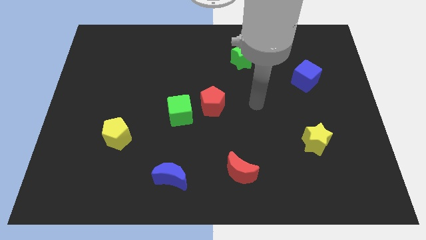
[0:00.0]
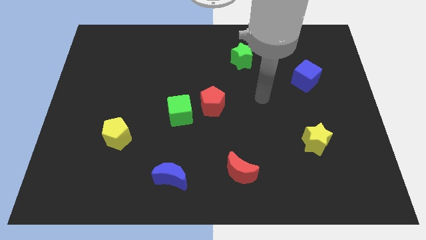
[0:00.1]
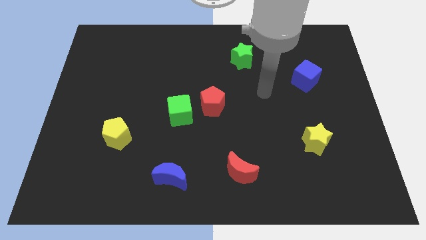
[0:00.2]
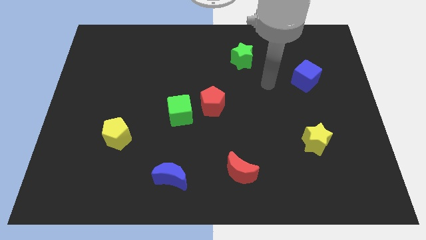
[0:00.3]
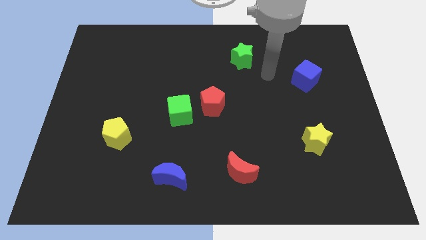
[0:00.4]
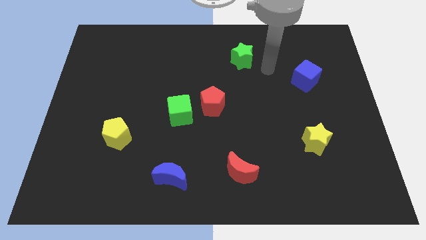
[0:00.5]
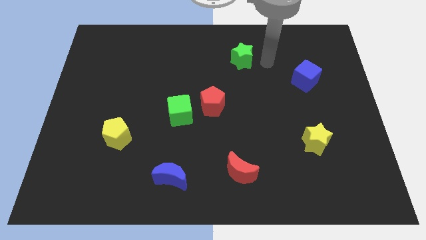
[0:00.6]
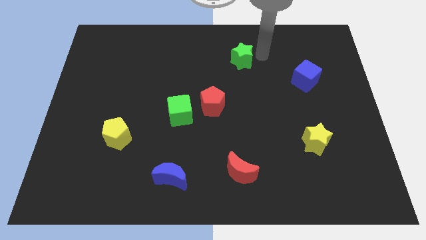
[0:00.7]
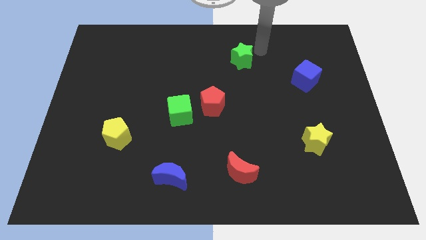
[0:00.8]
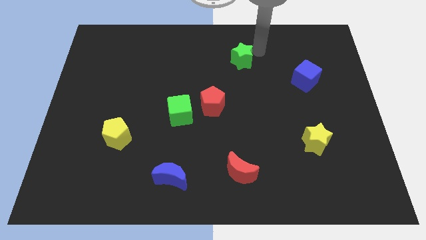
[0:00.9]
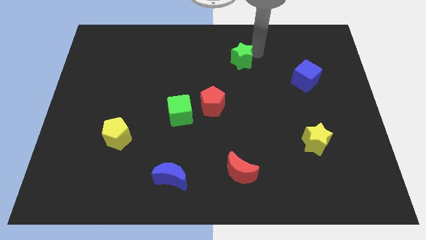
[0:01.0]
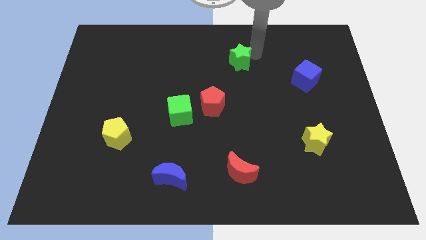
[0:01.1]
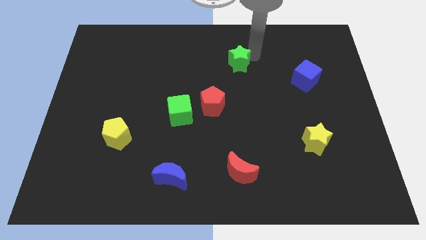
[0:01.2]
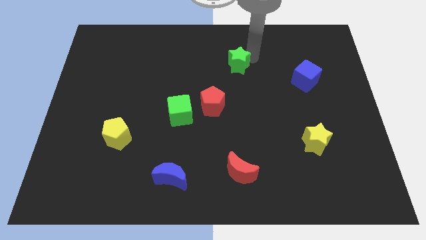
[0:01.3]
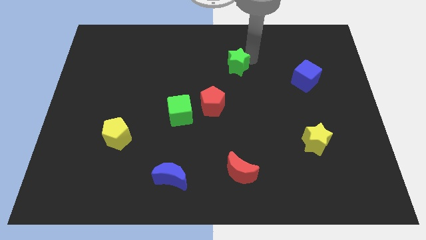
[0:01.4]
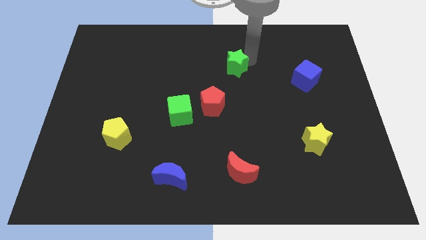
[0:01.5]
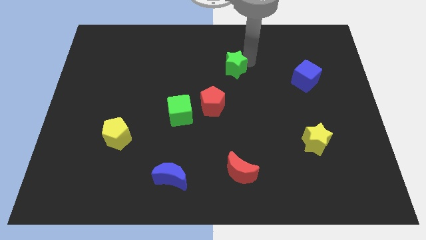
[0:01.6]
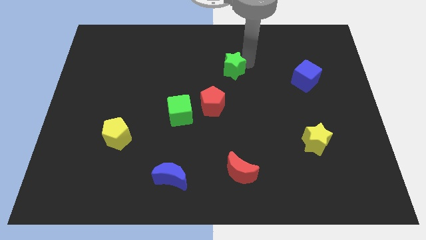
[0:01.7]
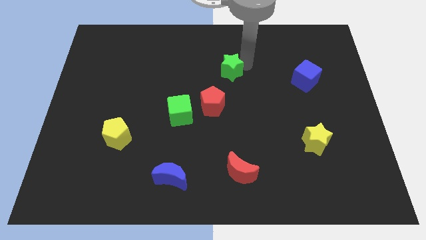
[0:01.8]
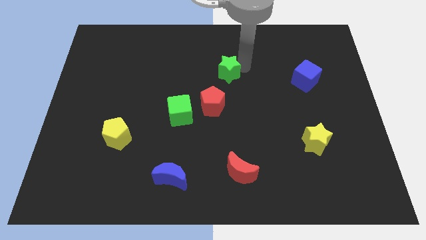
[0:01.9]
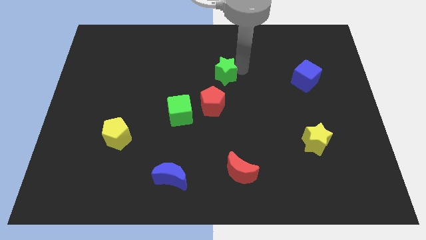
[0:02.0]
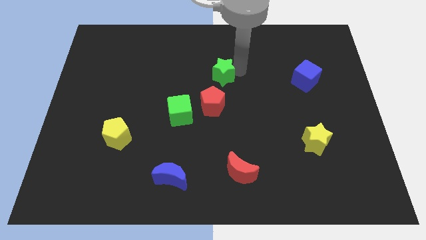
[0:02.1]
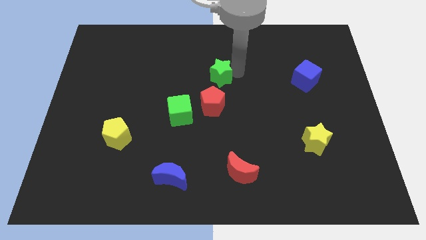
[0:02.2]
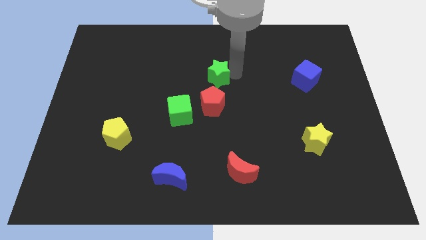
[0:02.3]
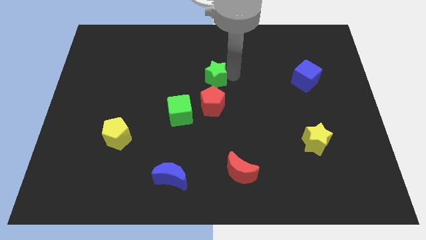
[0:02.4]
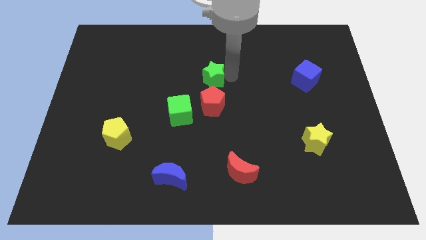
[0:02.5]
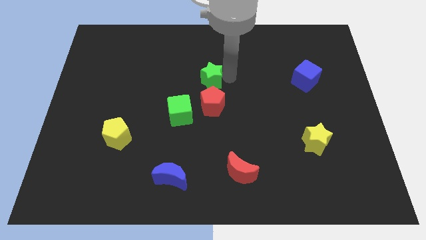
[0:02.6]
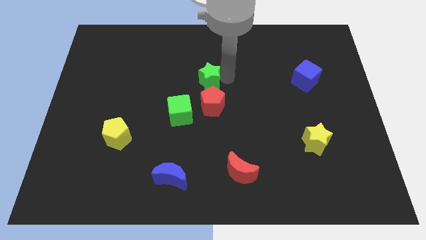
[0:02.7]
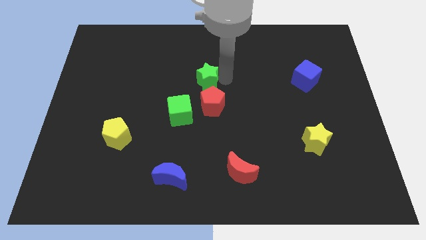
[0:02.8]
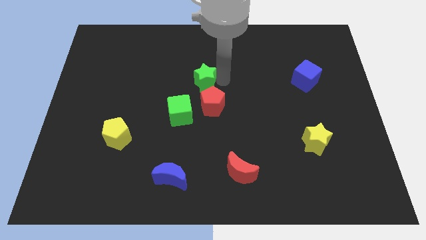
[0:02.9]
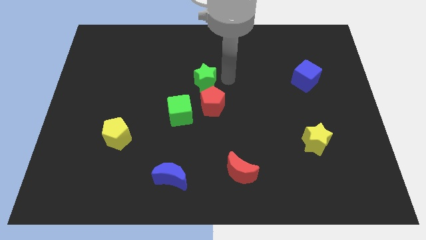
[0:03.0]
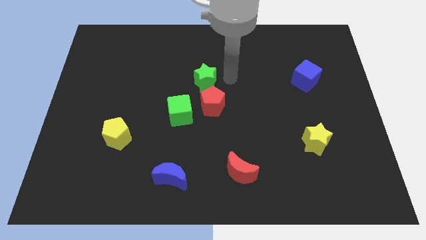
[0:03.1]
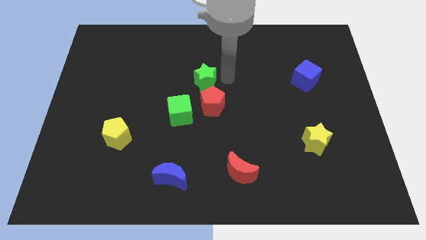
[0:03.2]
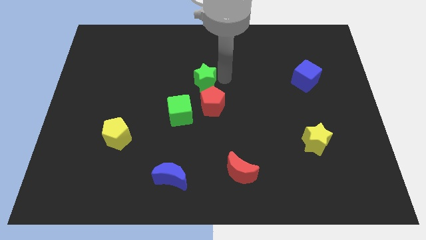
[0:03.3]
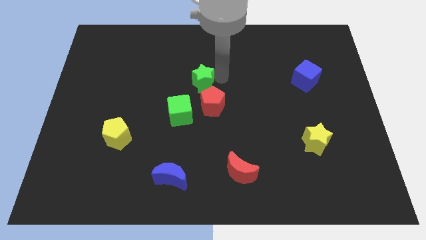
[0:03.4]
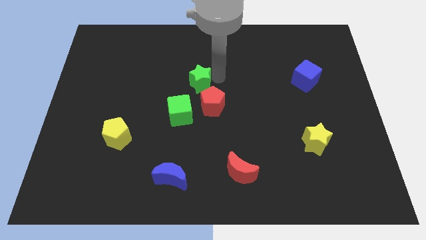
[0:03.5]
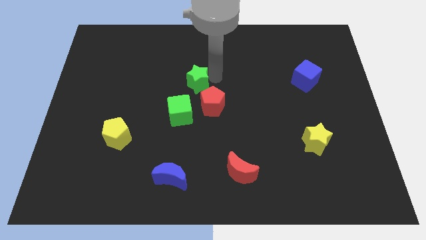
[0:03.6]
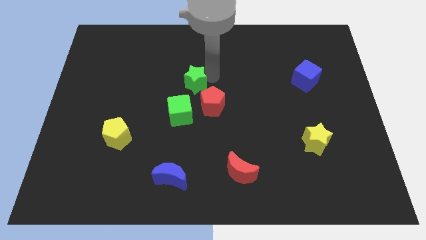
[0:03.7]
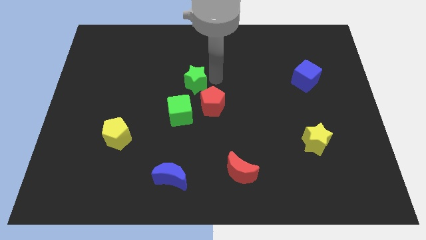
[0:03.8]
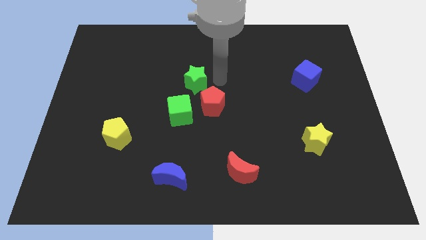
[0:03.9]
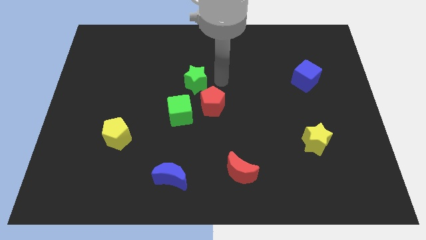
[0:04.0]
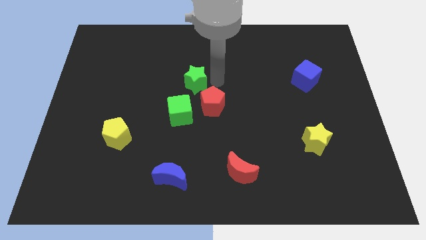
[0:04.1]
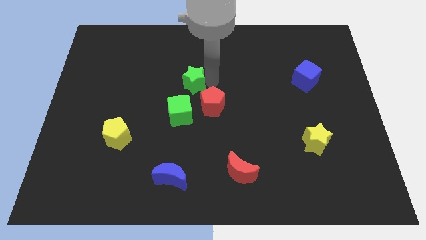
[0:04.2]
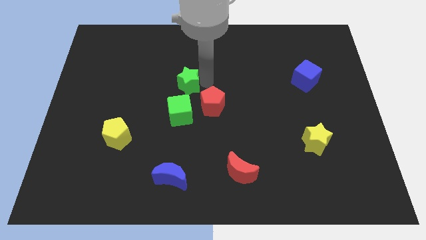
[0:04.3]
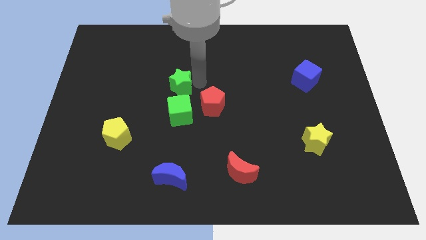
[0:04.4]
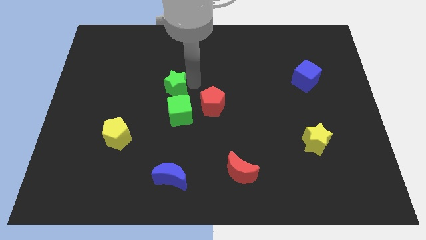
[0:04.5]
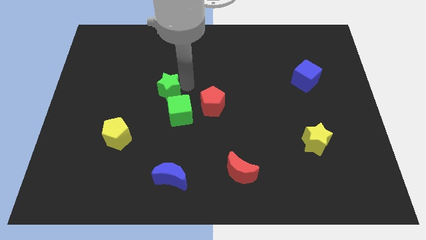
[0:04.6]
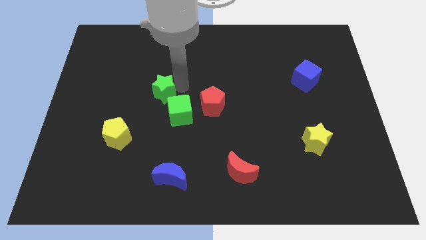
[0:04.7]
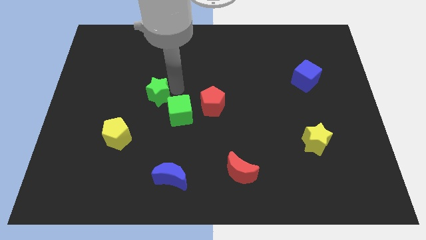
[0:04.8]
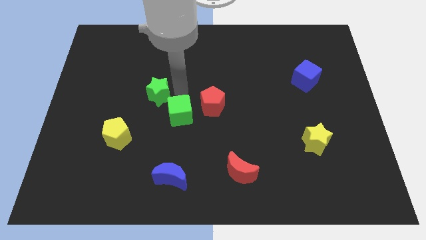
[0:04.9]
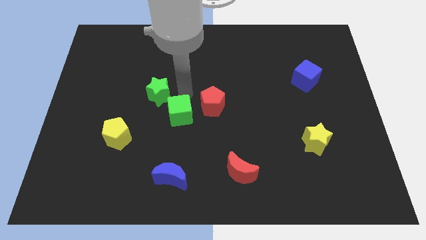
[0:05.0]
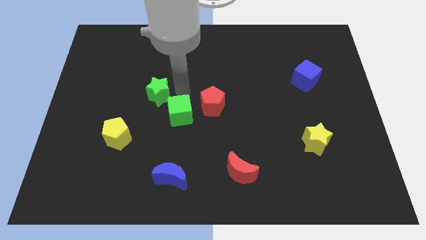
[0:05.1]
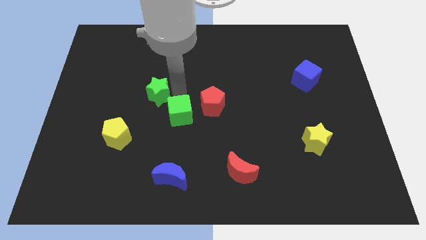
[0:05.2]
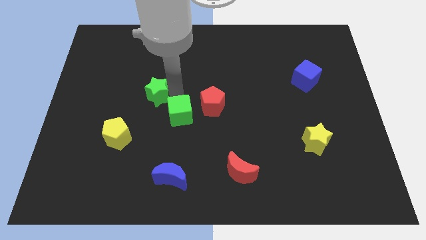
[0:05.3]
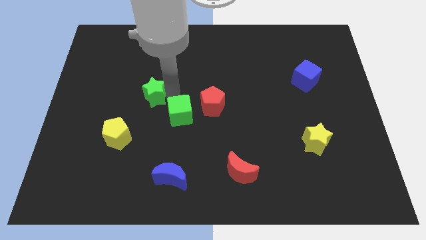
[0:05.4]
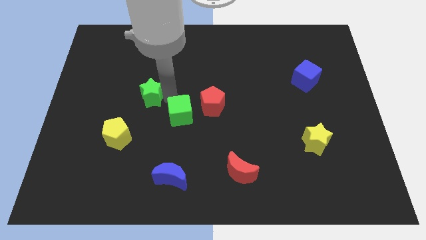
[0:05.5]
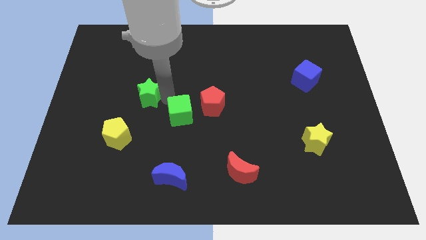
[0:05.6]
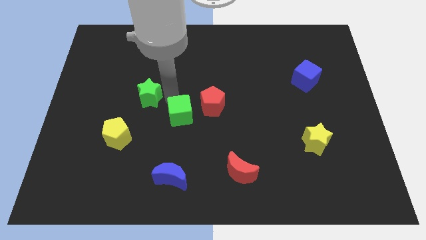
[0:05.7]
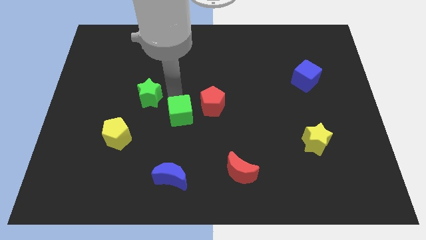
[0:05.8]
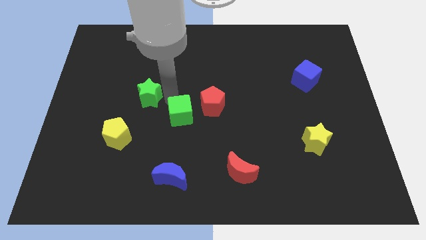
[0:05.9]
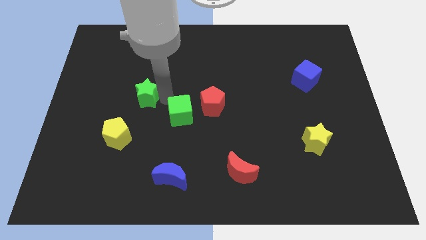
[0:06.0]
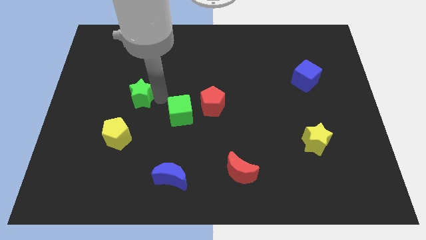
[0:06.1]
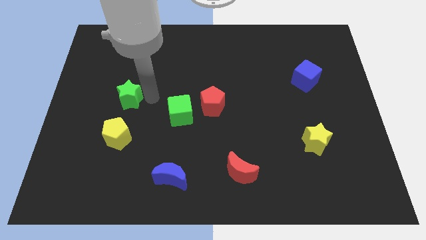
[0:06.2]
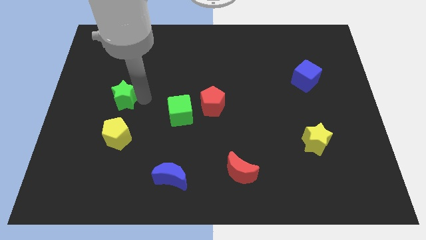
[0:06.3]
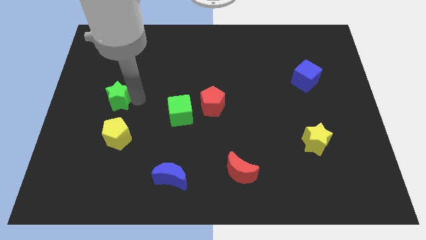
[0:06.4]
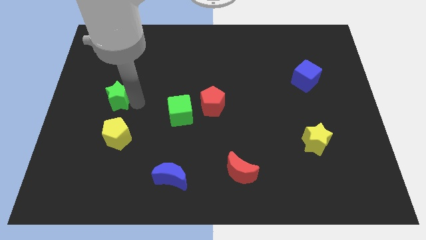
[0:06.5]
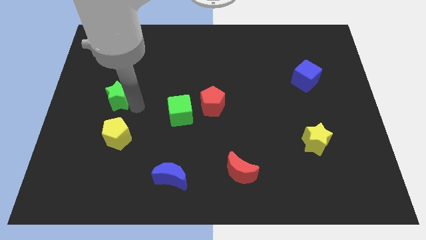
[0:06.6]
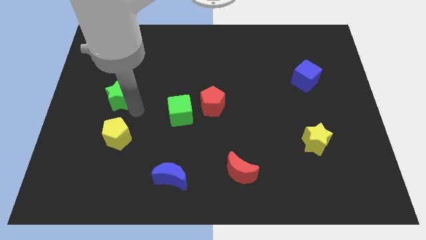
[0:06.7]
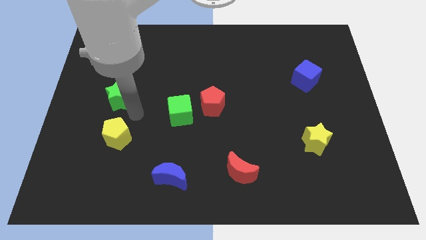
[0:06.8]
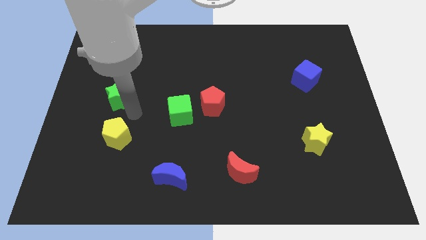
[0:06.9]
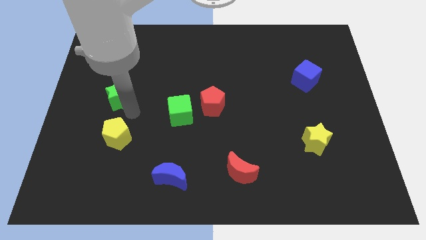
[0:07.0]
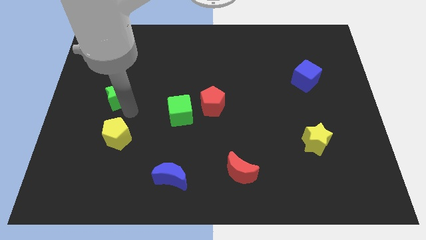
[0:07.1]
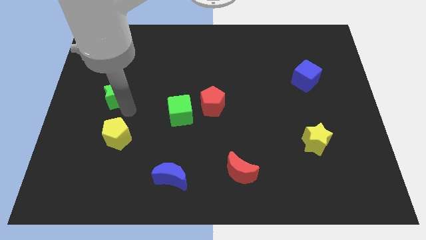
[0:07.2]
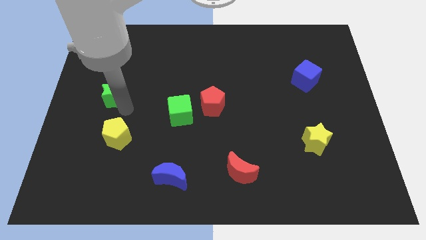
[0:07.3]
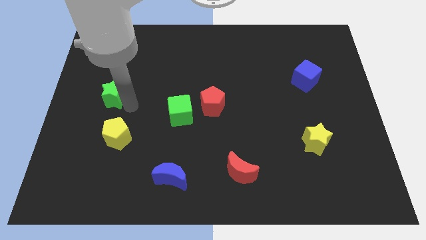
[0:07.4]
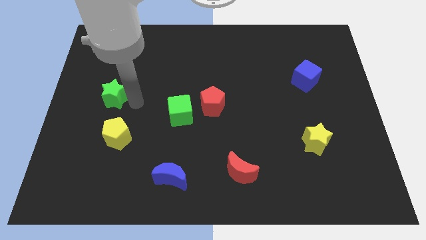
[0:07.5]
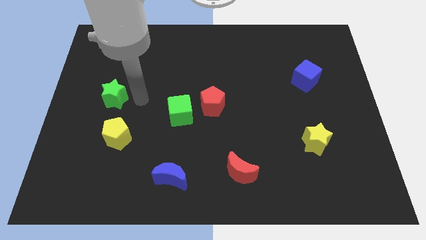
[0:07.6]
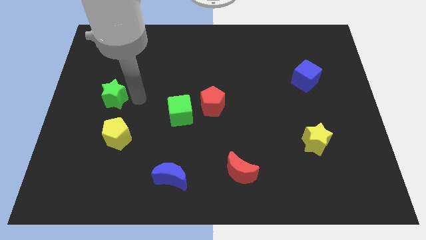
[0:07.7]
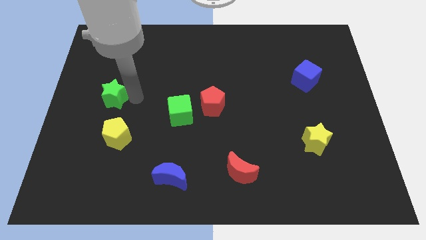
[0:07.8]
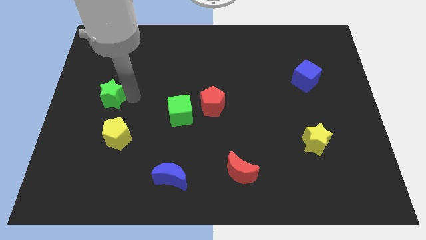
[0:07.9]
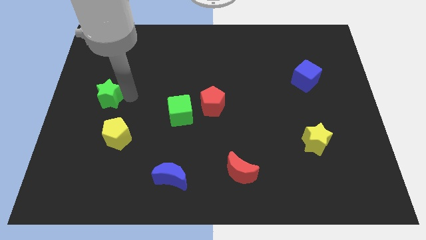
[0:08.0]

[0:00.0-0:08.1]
put the green star to the center left
